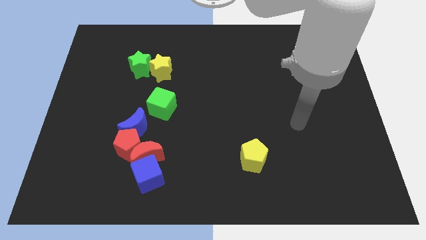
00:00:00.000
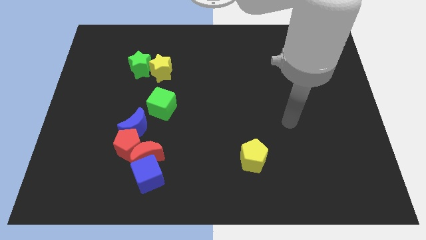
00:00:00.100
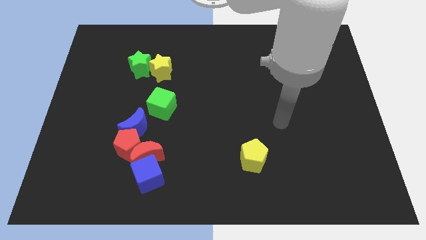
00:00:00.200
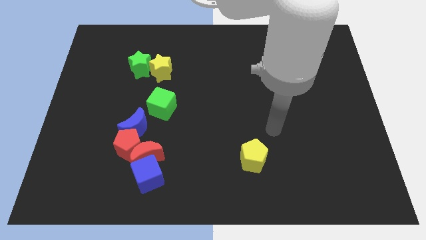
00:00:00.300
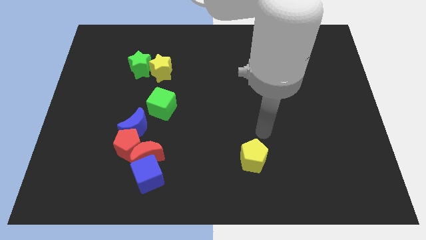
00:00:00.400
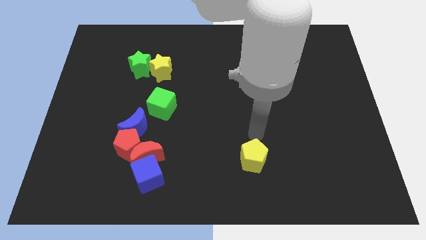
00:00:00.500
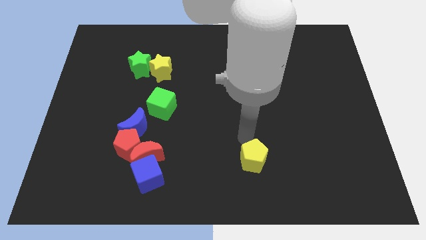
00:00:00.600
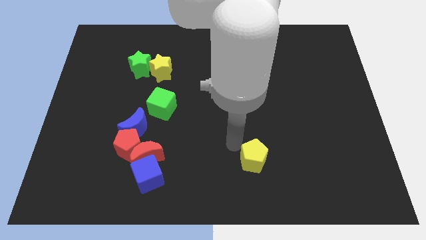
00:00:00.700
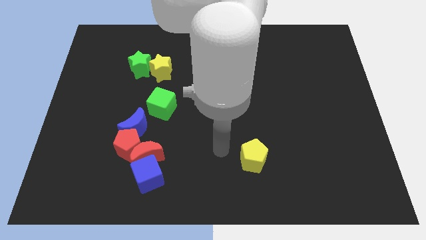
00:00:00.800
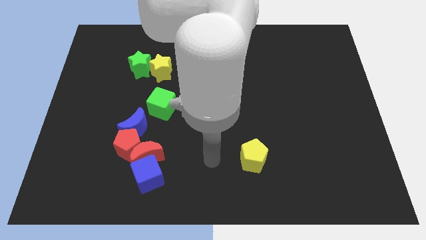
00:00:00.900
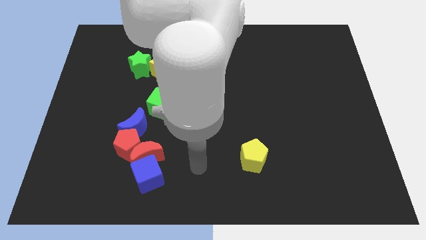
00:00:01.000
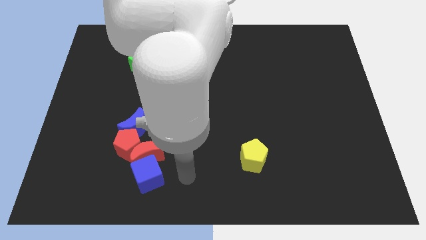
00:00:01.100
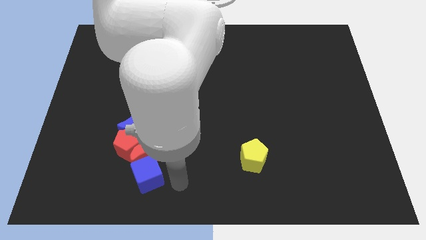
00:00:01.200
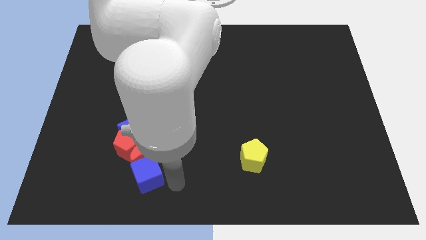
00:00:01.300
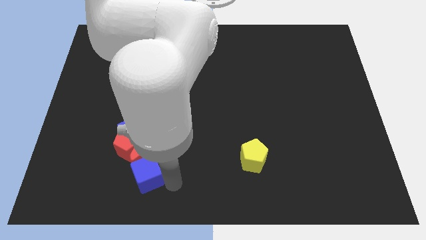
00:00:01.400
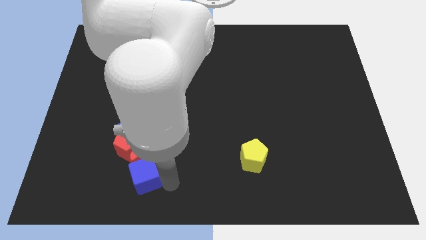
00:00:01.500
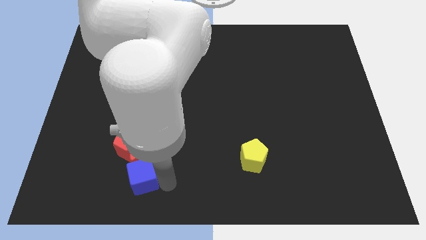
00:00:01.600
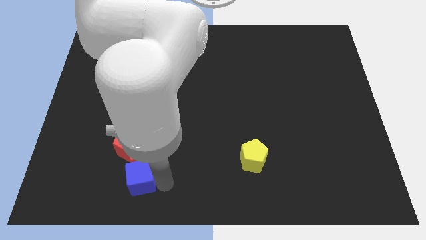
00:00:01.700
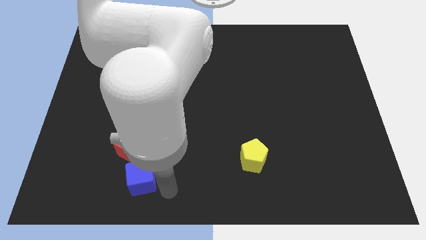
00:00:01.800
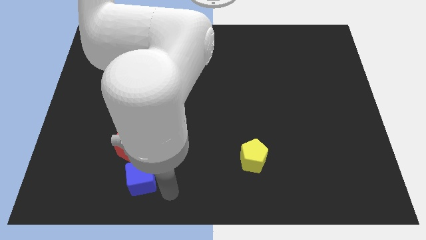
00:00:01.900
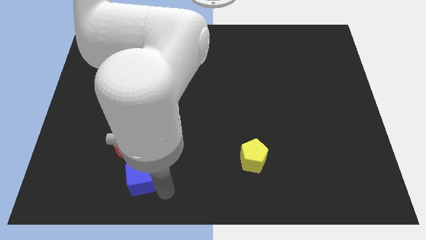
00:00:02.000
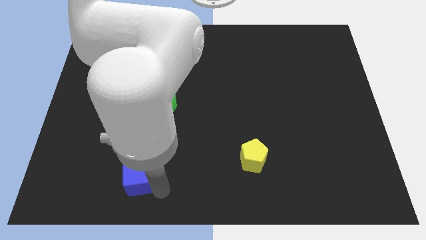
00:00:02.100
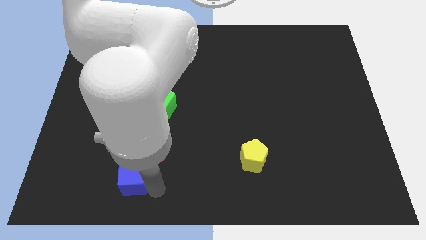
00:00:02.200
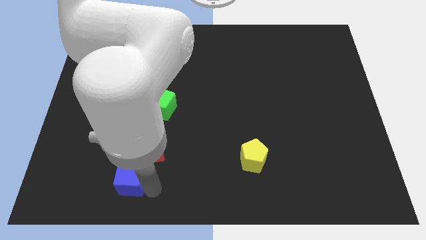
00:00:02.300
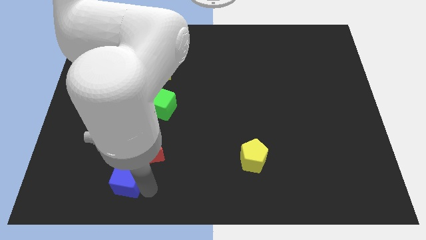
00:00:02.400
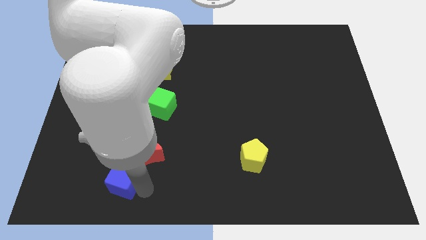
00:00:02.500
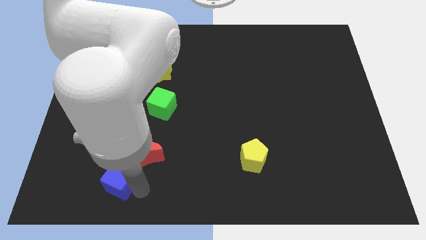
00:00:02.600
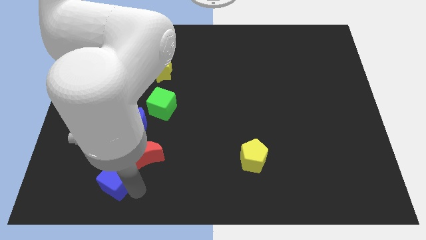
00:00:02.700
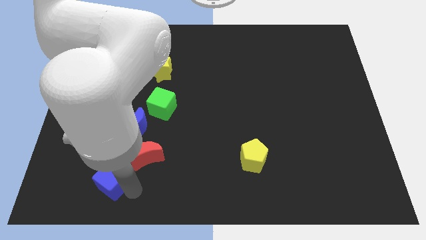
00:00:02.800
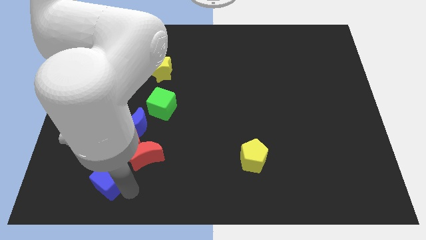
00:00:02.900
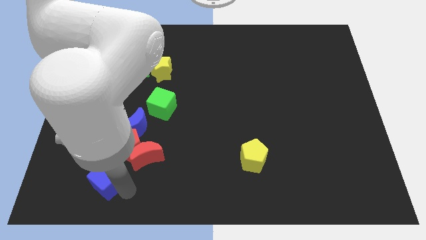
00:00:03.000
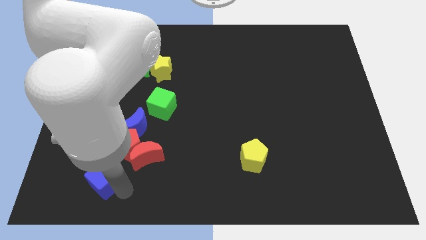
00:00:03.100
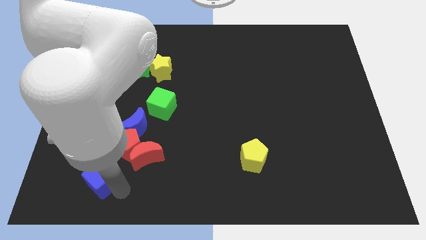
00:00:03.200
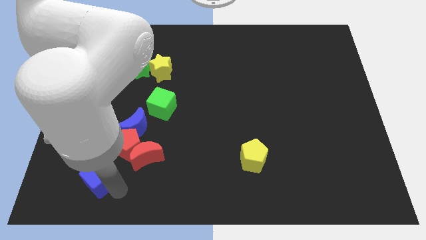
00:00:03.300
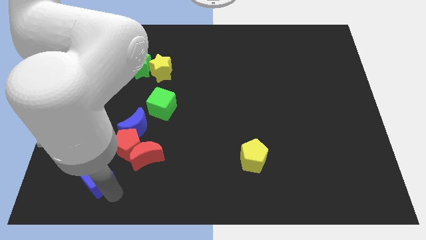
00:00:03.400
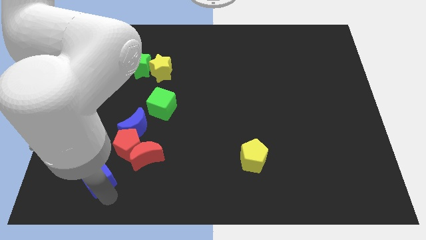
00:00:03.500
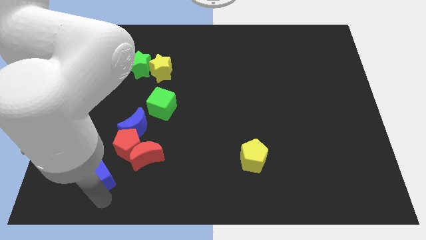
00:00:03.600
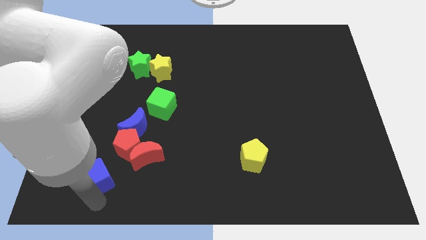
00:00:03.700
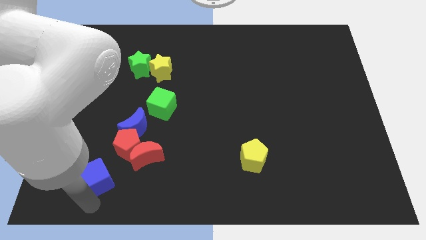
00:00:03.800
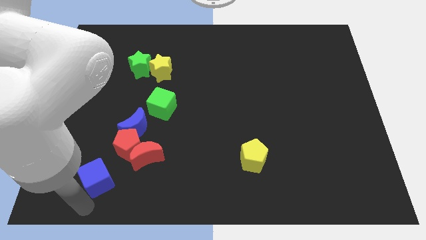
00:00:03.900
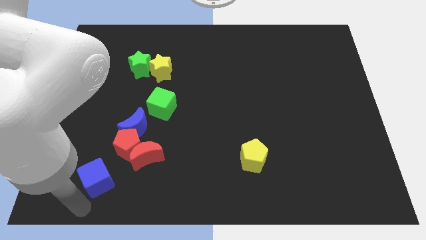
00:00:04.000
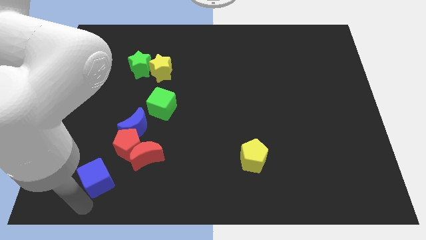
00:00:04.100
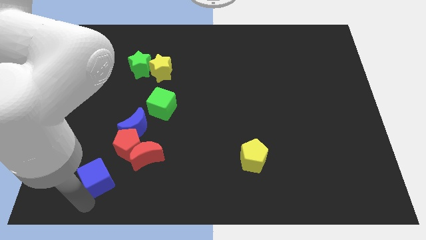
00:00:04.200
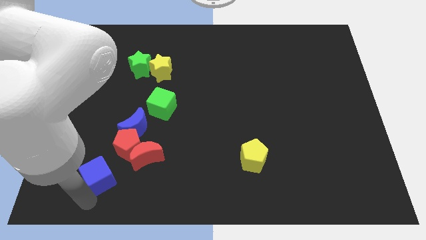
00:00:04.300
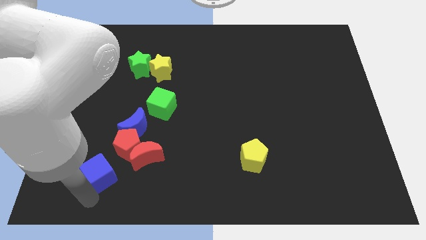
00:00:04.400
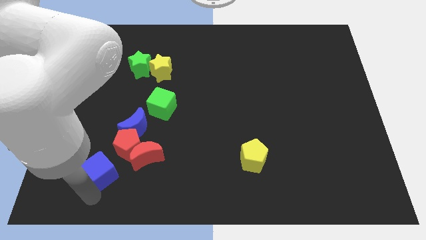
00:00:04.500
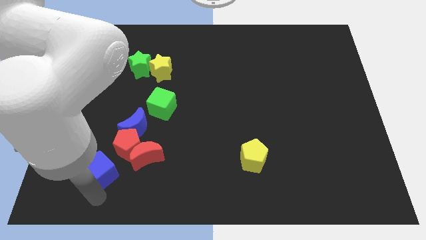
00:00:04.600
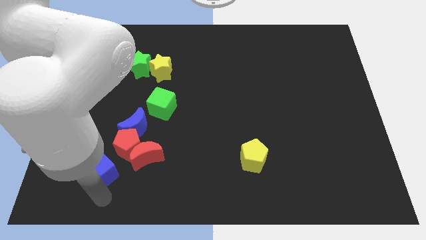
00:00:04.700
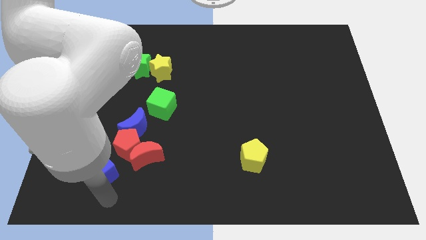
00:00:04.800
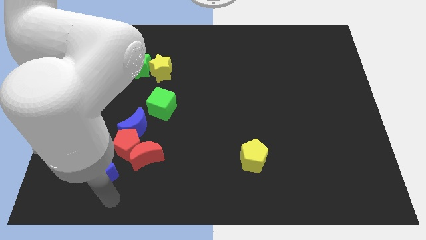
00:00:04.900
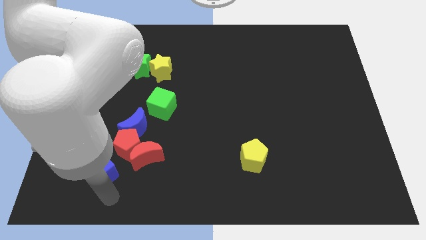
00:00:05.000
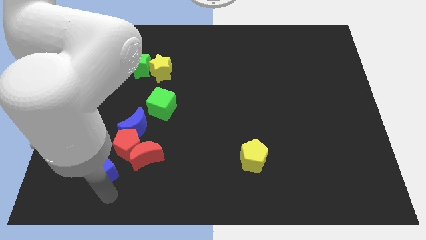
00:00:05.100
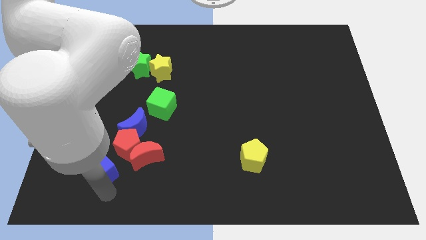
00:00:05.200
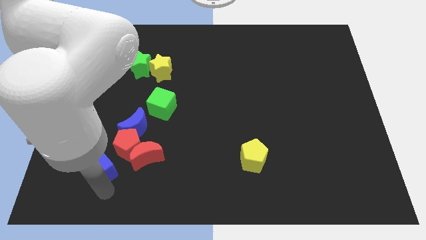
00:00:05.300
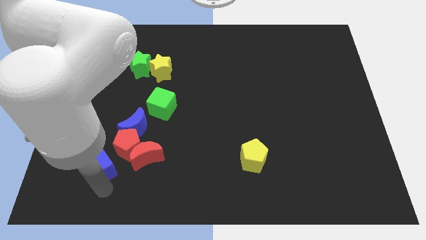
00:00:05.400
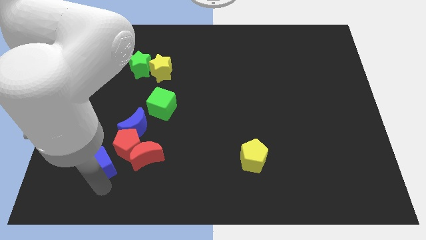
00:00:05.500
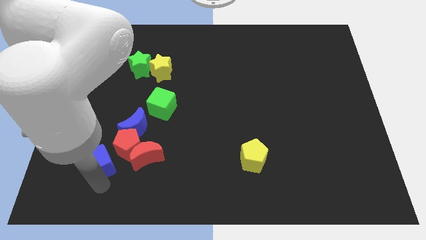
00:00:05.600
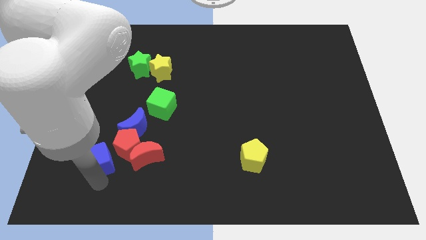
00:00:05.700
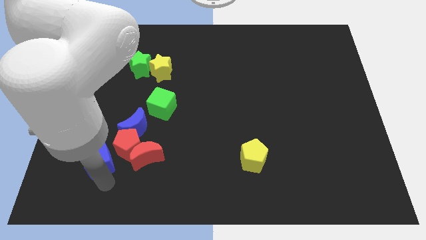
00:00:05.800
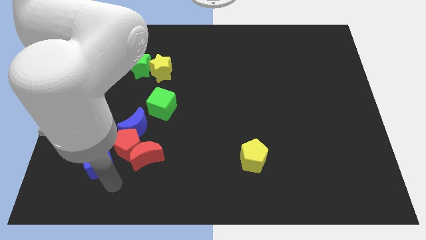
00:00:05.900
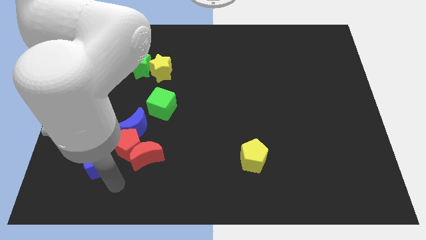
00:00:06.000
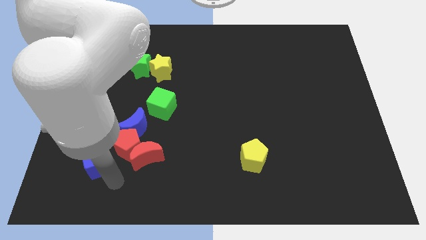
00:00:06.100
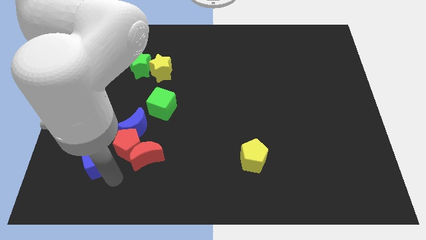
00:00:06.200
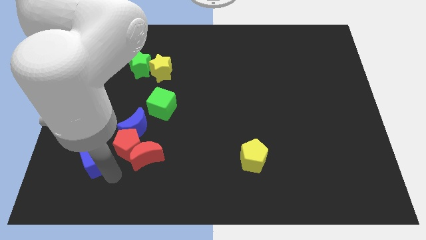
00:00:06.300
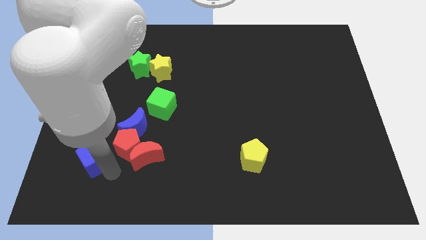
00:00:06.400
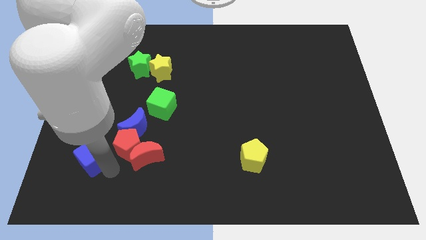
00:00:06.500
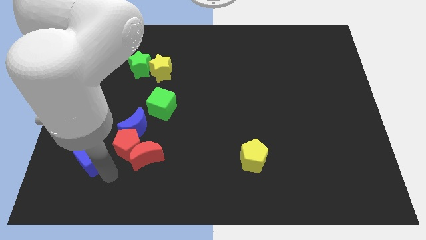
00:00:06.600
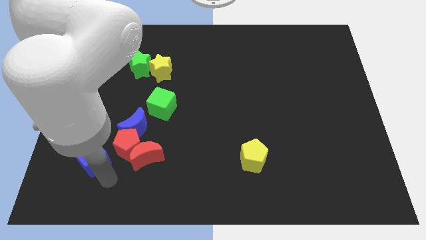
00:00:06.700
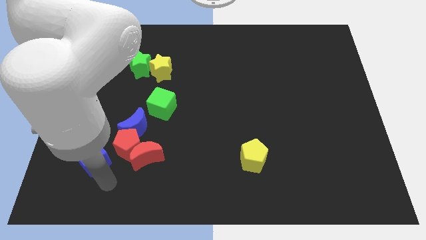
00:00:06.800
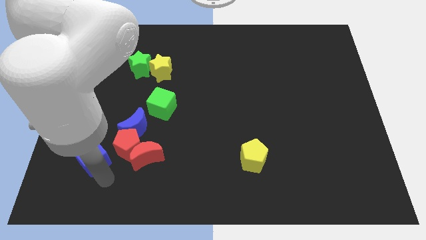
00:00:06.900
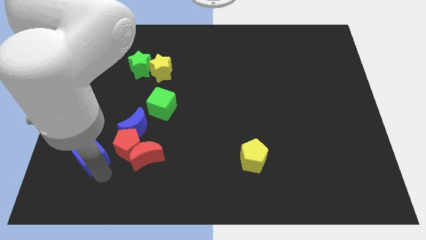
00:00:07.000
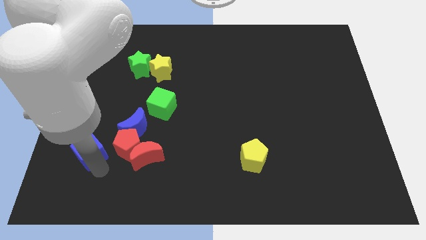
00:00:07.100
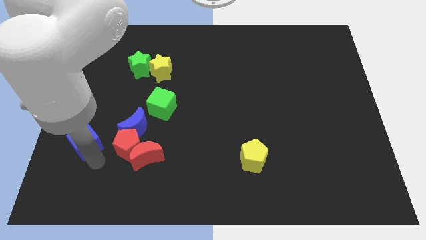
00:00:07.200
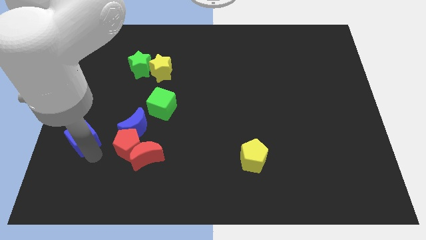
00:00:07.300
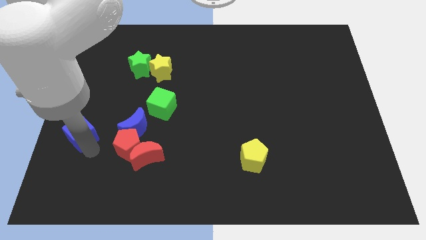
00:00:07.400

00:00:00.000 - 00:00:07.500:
put the blue cube to the left side

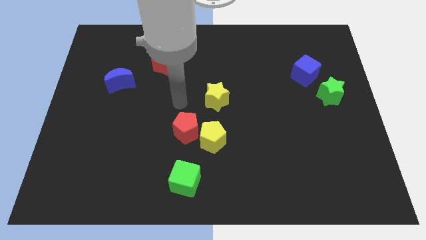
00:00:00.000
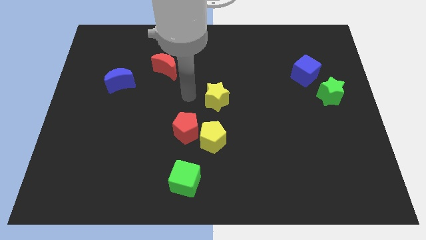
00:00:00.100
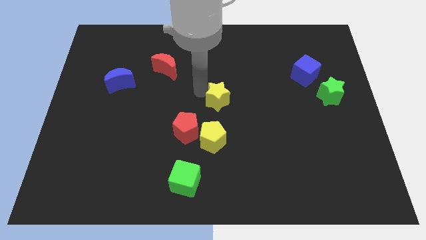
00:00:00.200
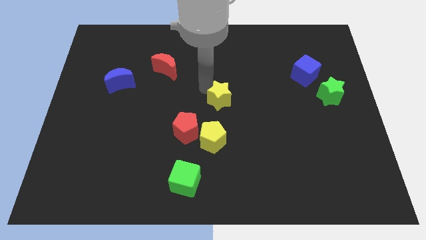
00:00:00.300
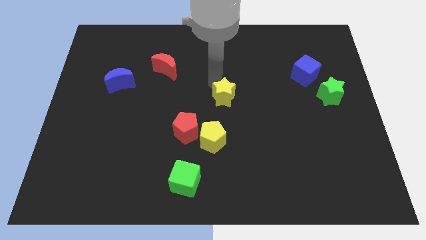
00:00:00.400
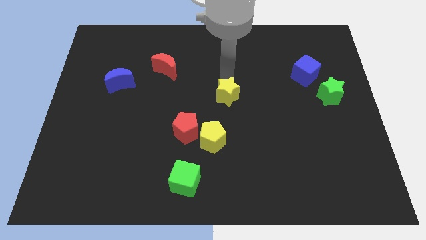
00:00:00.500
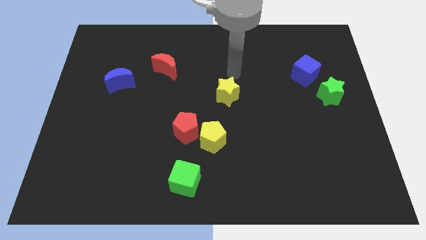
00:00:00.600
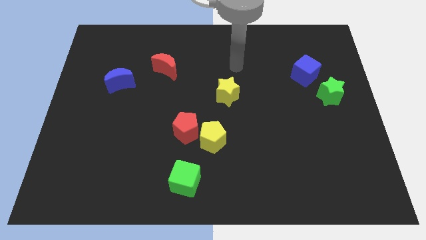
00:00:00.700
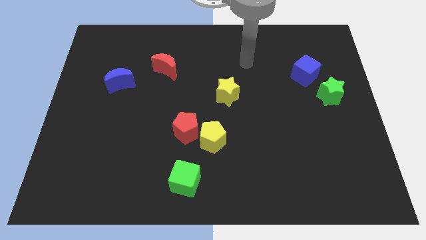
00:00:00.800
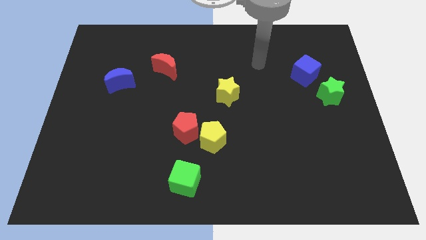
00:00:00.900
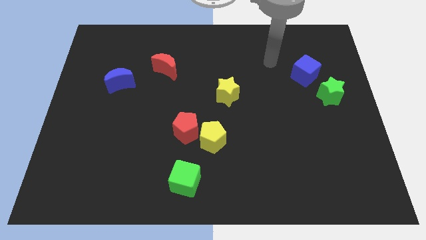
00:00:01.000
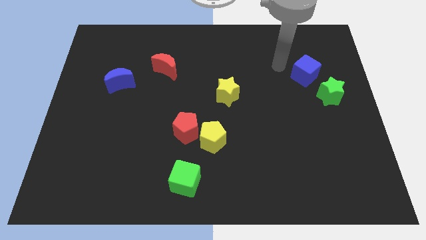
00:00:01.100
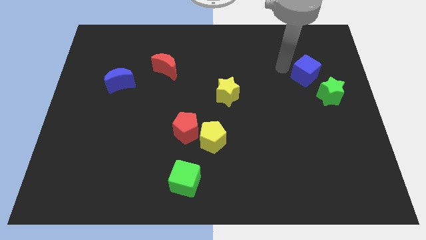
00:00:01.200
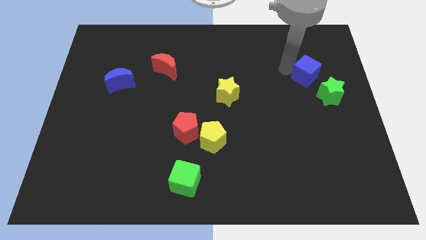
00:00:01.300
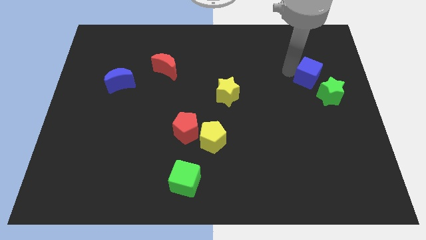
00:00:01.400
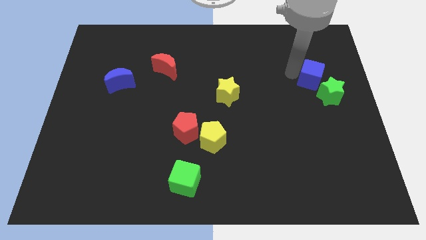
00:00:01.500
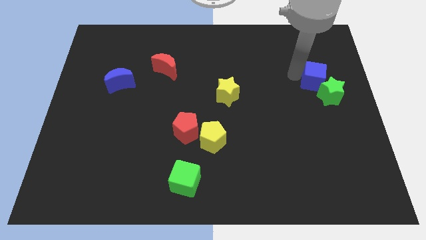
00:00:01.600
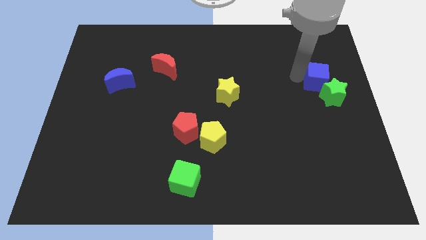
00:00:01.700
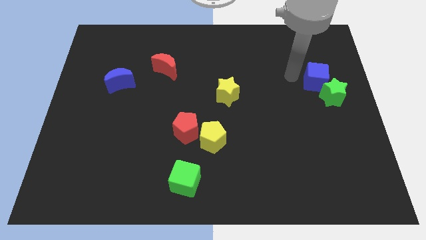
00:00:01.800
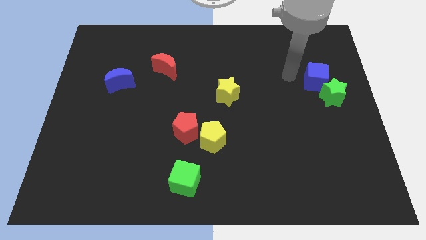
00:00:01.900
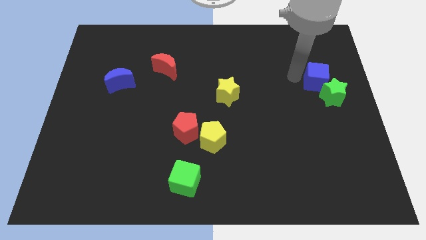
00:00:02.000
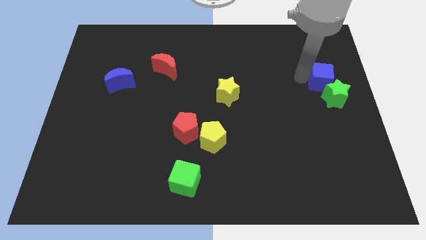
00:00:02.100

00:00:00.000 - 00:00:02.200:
move the blue cube to the center right
